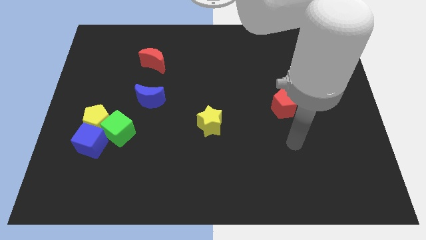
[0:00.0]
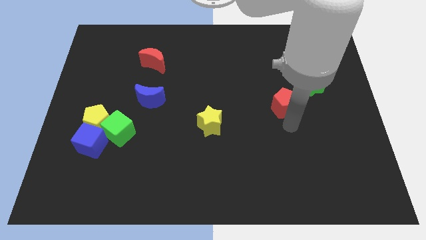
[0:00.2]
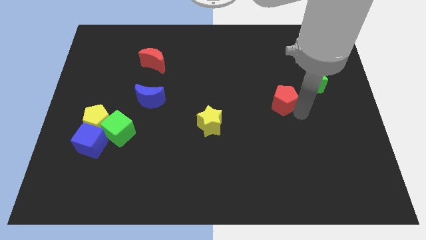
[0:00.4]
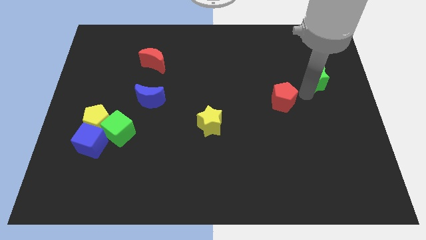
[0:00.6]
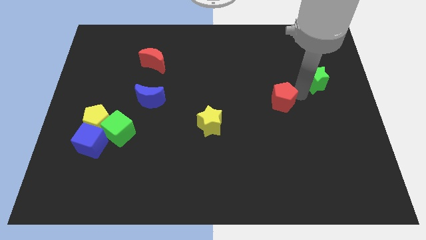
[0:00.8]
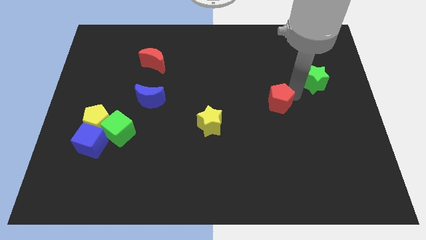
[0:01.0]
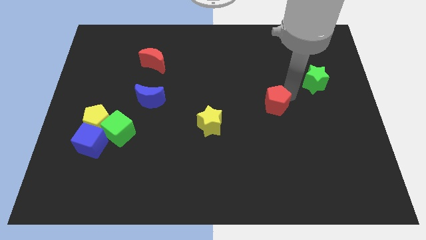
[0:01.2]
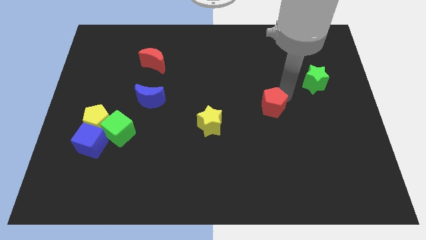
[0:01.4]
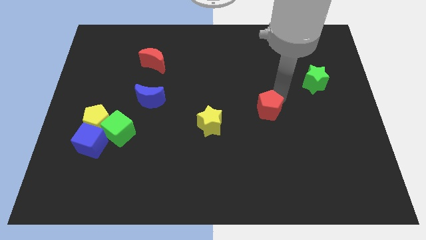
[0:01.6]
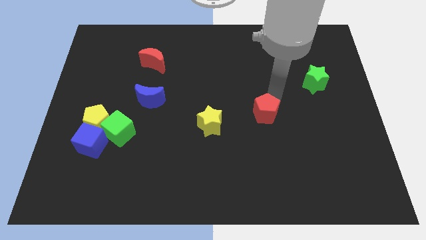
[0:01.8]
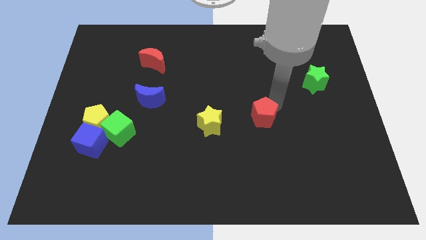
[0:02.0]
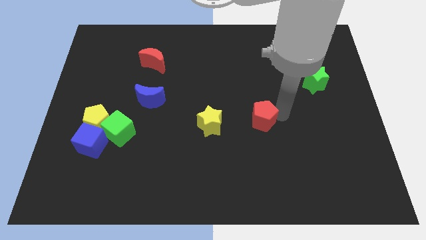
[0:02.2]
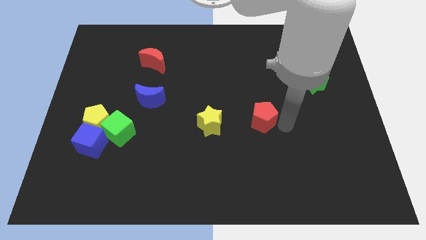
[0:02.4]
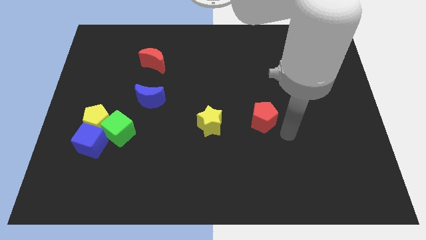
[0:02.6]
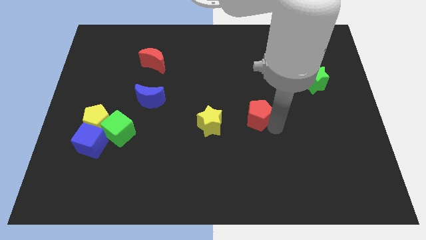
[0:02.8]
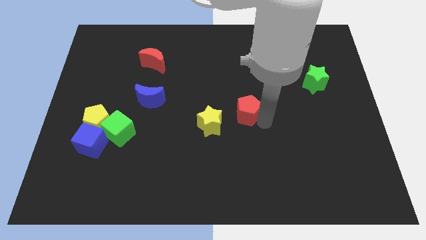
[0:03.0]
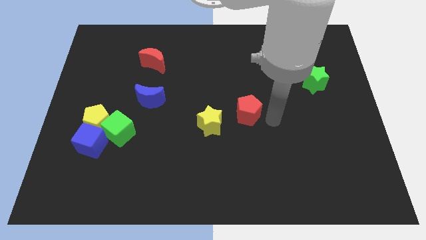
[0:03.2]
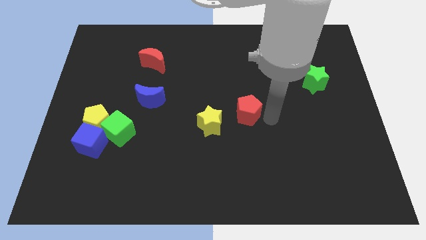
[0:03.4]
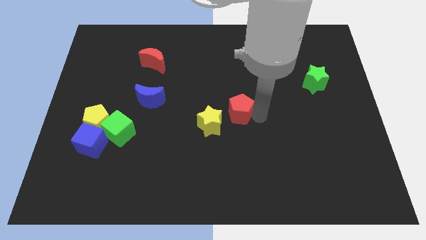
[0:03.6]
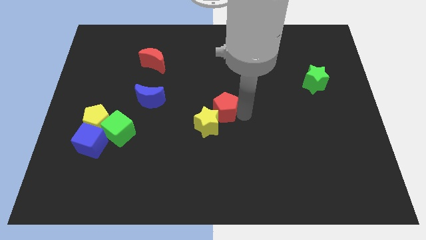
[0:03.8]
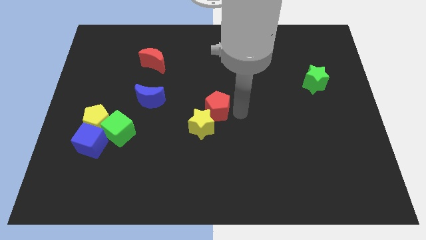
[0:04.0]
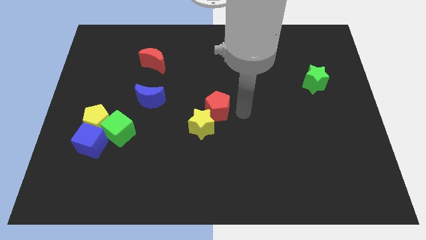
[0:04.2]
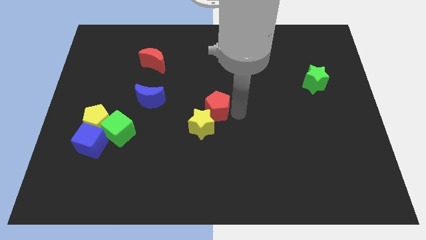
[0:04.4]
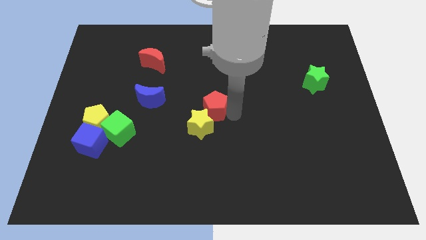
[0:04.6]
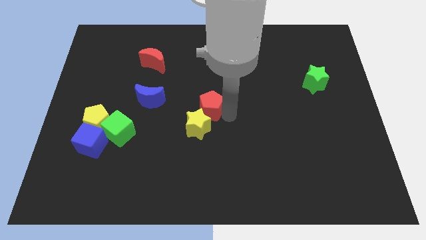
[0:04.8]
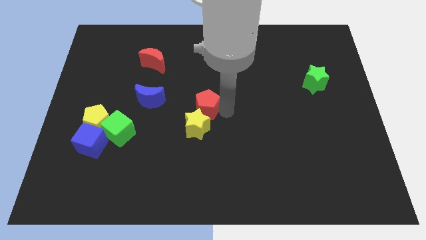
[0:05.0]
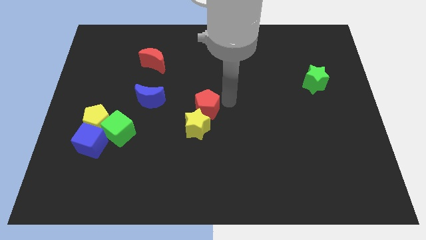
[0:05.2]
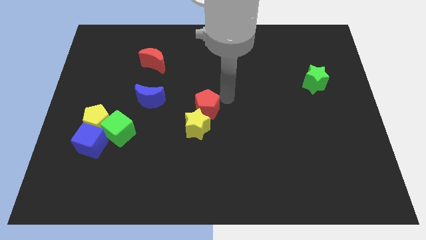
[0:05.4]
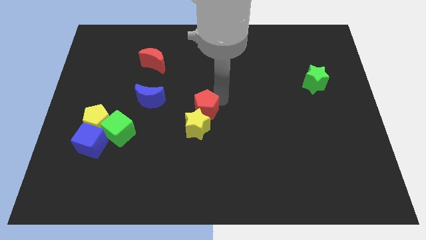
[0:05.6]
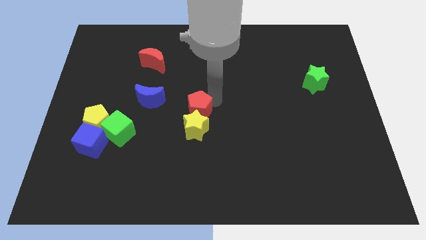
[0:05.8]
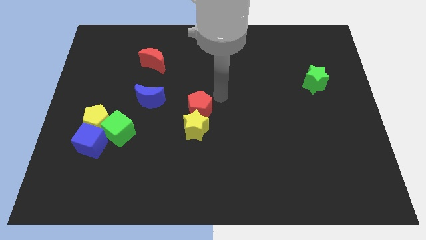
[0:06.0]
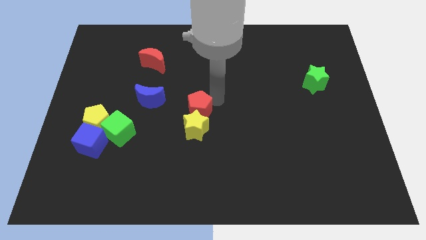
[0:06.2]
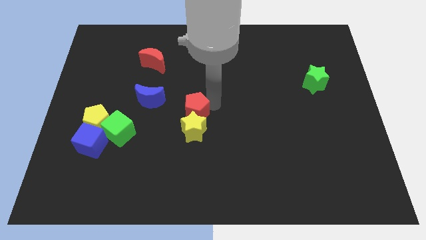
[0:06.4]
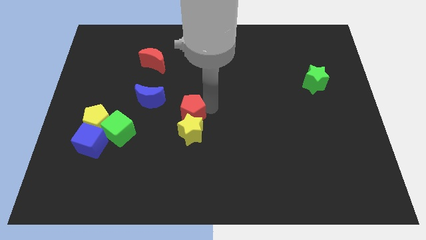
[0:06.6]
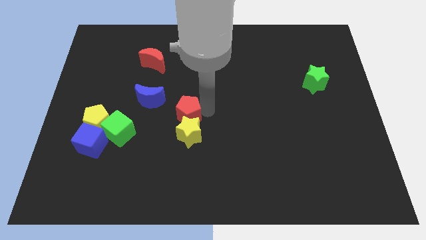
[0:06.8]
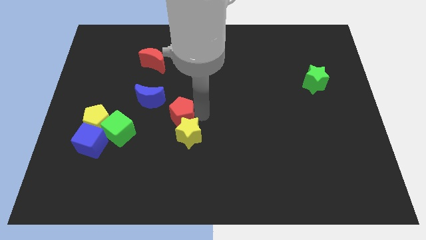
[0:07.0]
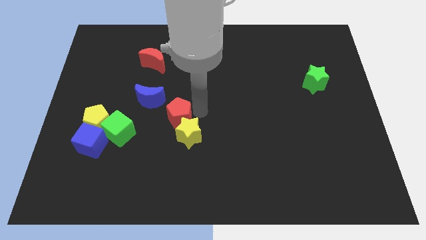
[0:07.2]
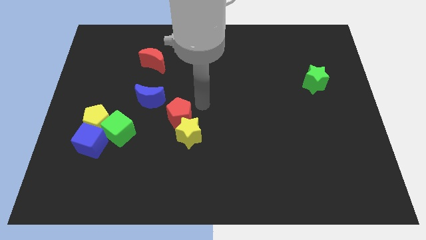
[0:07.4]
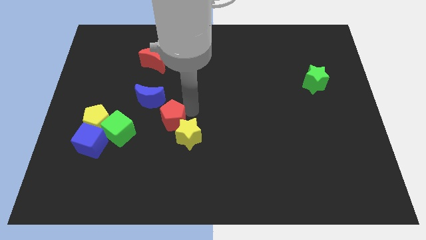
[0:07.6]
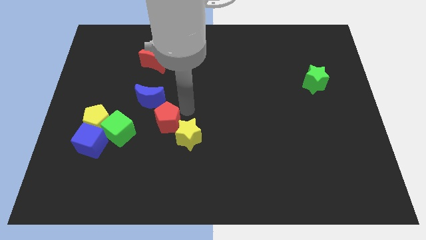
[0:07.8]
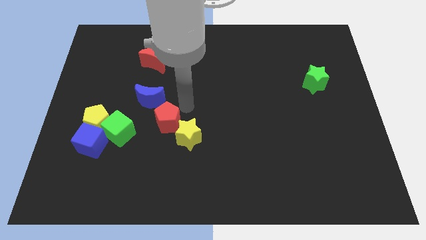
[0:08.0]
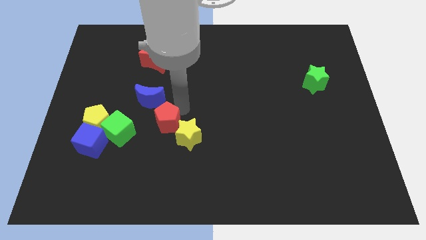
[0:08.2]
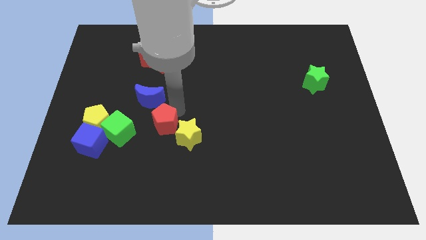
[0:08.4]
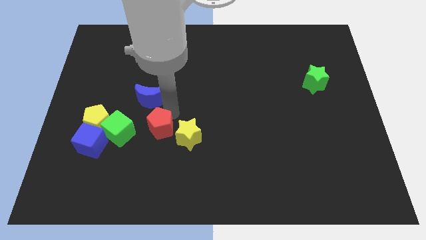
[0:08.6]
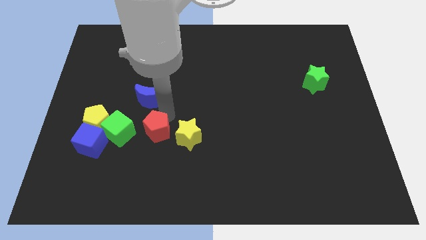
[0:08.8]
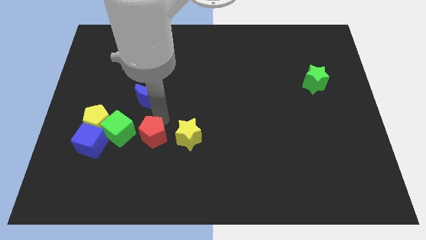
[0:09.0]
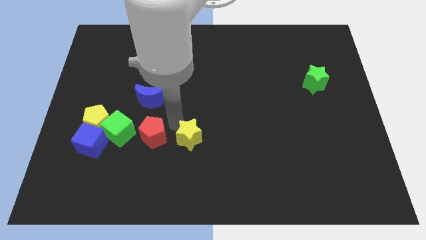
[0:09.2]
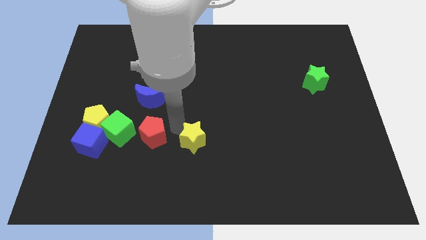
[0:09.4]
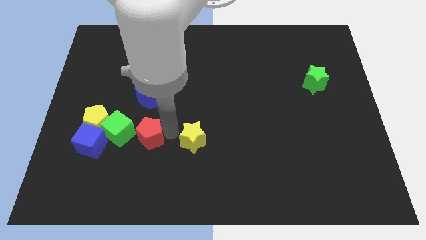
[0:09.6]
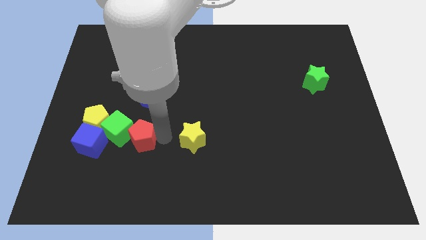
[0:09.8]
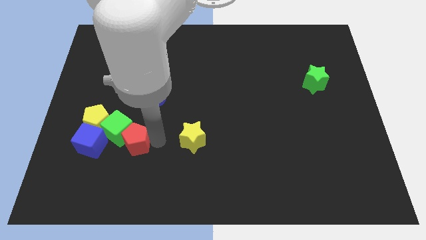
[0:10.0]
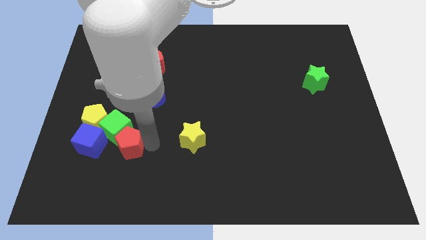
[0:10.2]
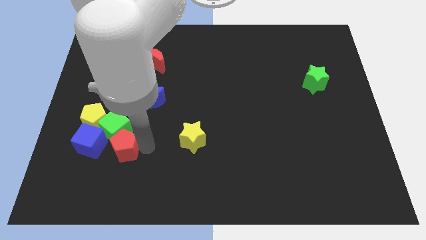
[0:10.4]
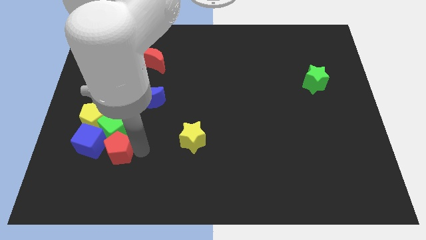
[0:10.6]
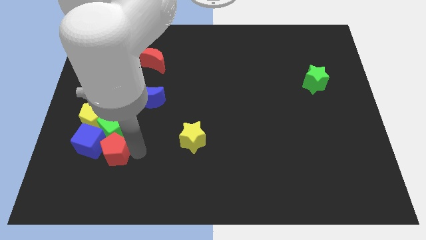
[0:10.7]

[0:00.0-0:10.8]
put the red pentagon next to the blue cube

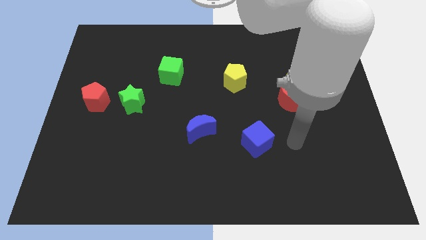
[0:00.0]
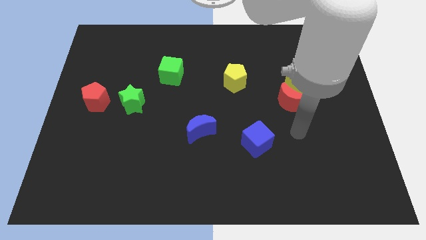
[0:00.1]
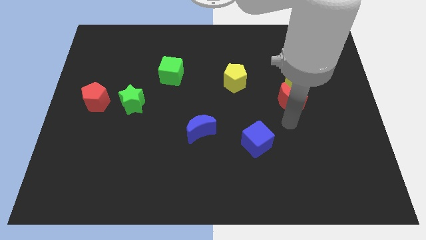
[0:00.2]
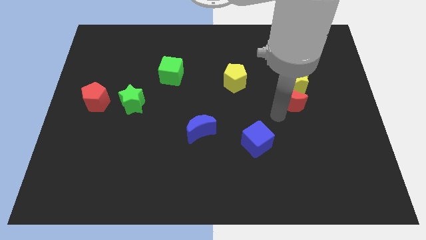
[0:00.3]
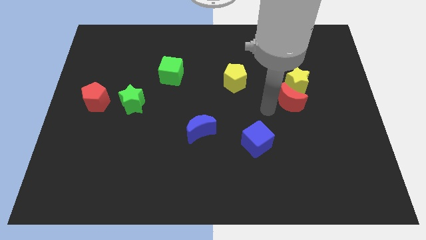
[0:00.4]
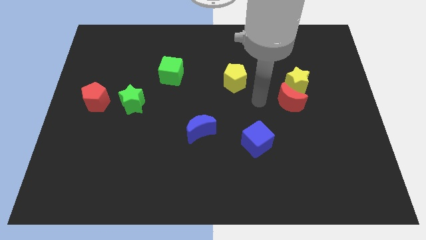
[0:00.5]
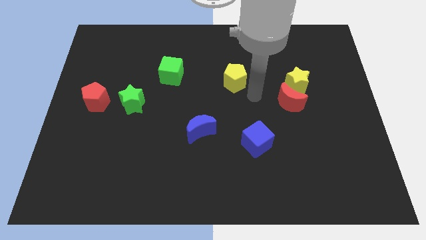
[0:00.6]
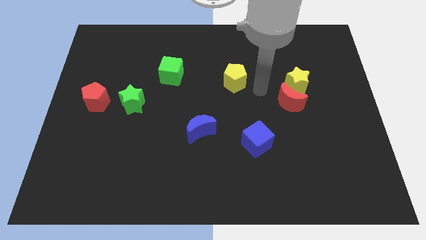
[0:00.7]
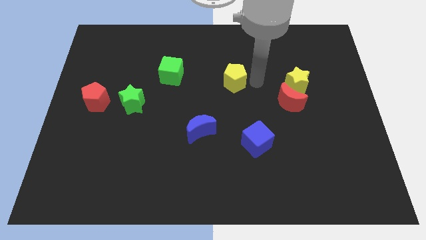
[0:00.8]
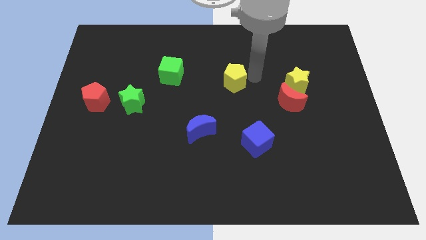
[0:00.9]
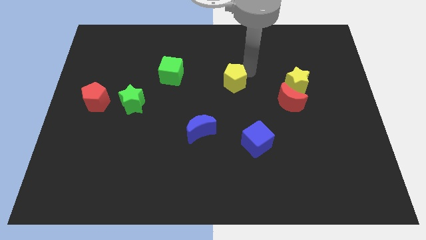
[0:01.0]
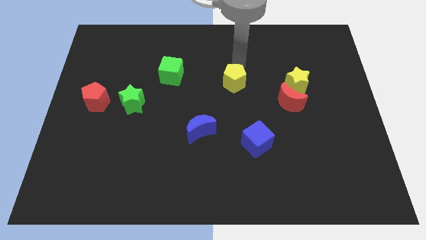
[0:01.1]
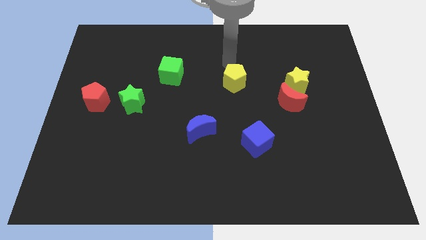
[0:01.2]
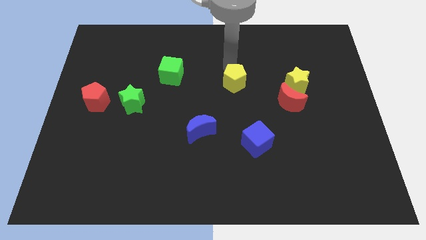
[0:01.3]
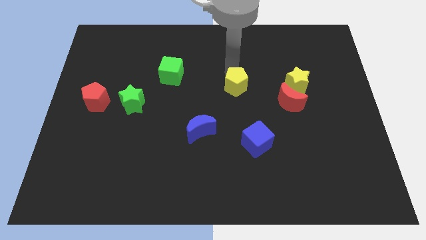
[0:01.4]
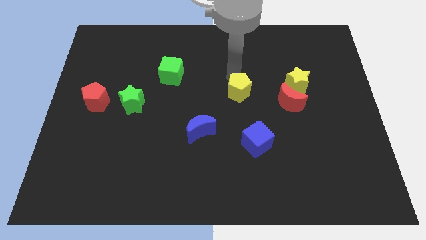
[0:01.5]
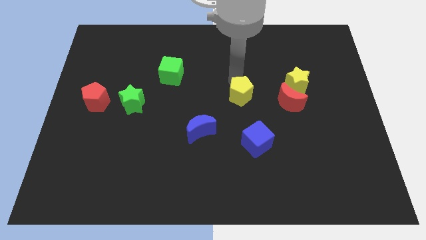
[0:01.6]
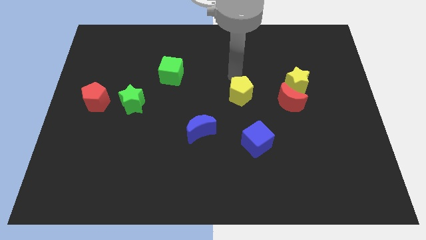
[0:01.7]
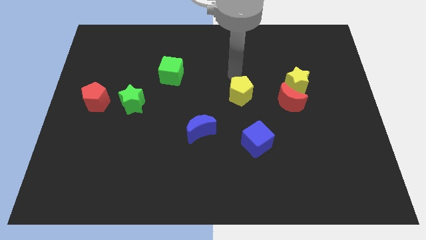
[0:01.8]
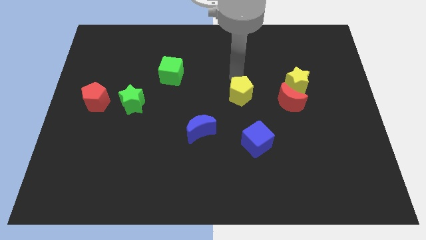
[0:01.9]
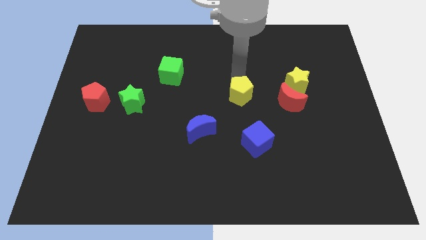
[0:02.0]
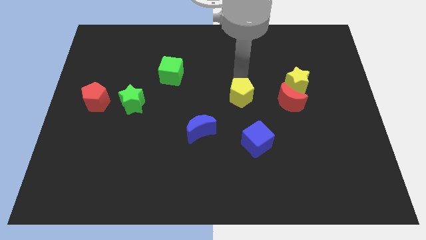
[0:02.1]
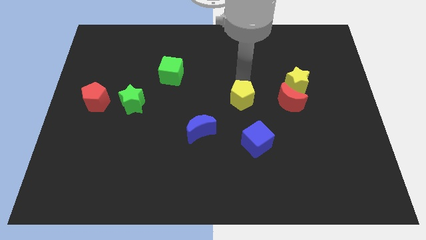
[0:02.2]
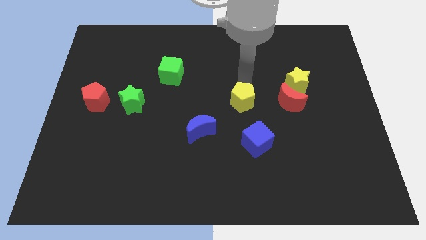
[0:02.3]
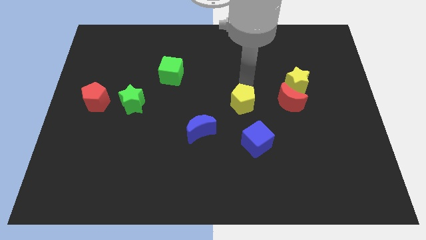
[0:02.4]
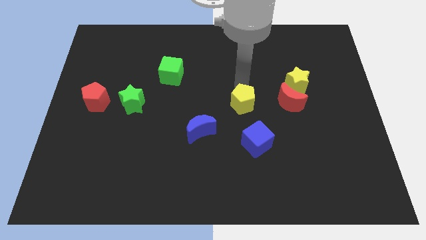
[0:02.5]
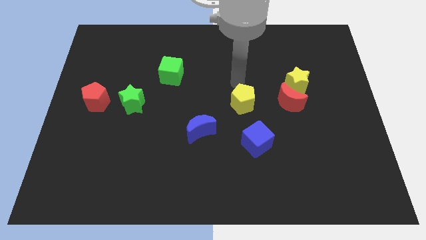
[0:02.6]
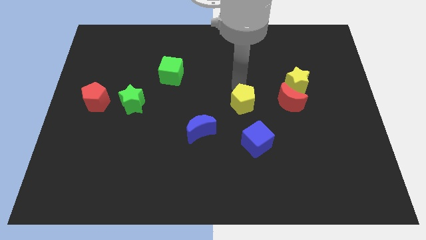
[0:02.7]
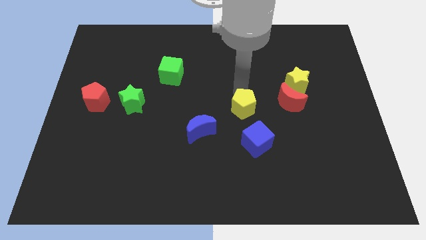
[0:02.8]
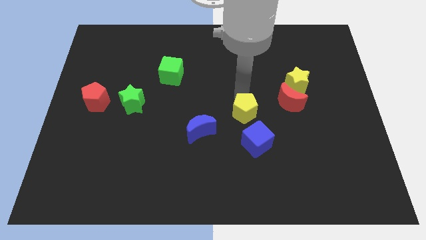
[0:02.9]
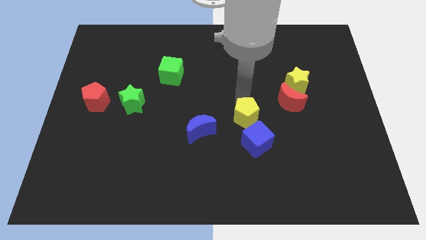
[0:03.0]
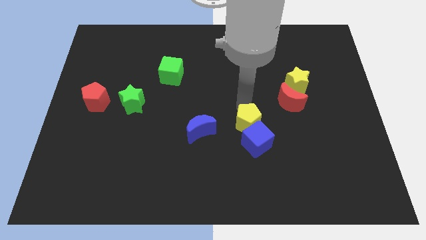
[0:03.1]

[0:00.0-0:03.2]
slide the yellow pentagon to the blue cube
